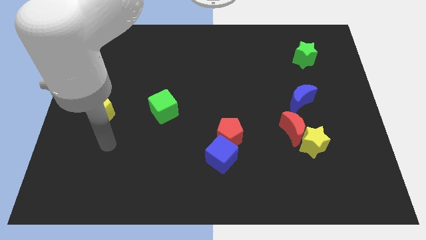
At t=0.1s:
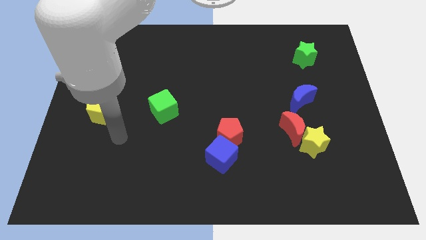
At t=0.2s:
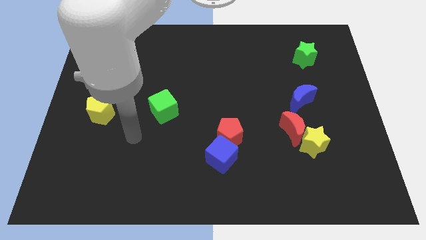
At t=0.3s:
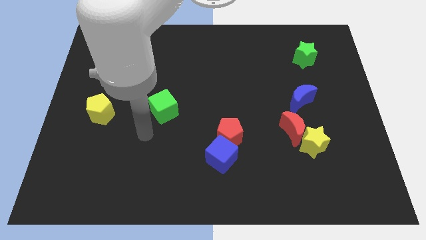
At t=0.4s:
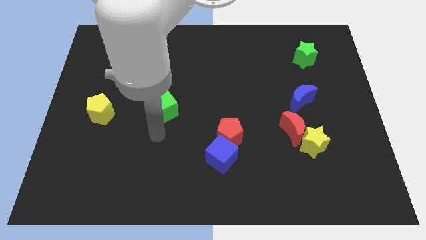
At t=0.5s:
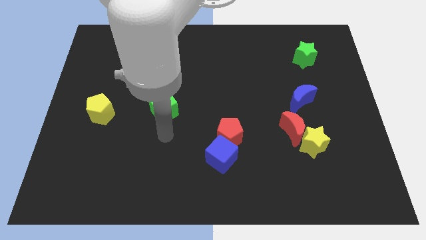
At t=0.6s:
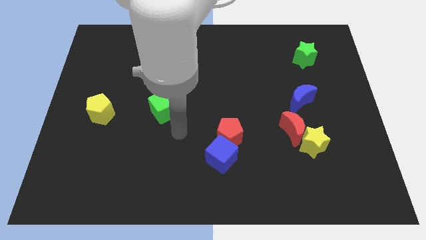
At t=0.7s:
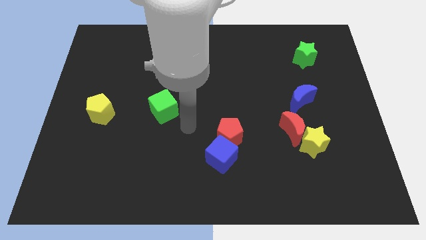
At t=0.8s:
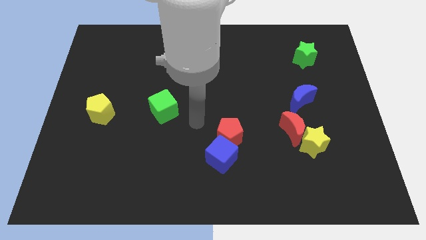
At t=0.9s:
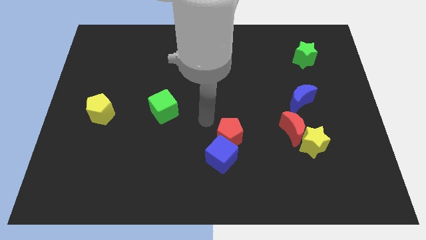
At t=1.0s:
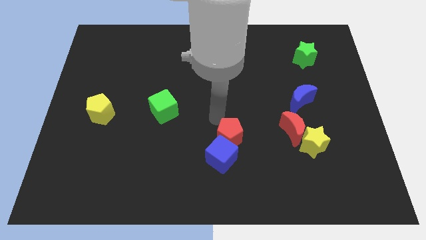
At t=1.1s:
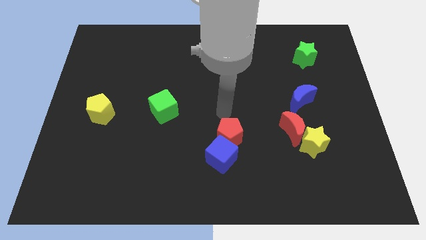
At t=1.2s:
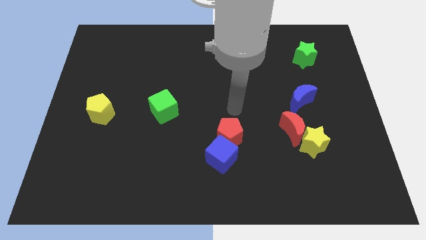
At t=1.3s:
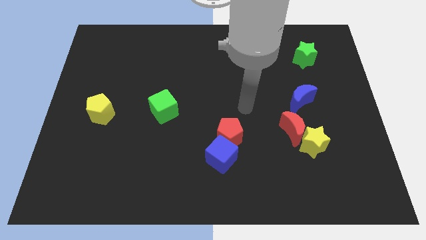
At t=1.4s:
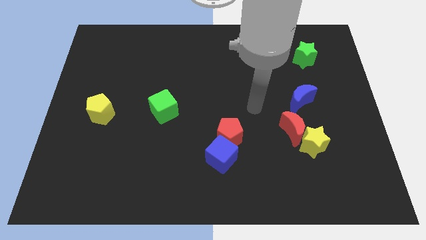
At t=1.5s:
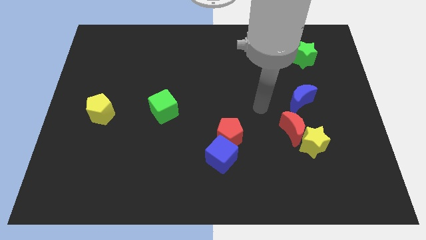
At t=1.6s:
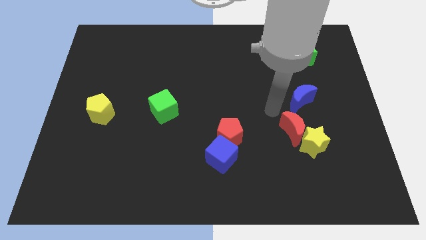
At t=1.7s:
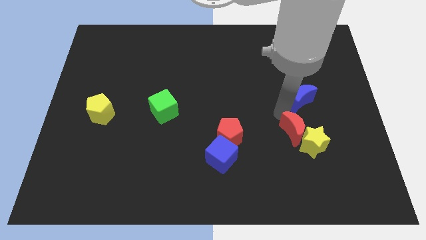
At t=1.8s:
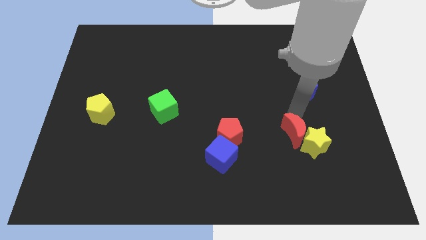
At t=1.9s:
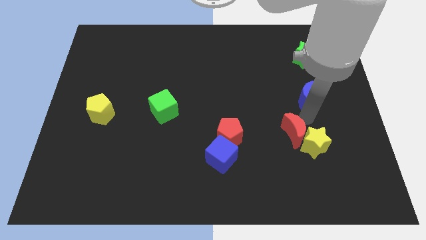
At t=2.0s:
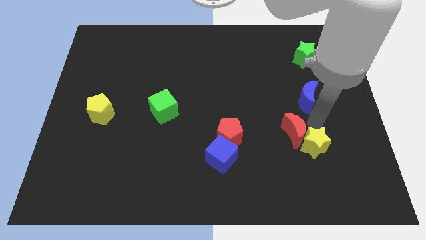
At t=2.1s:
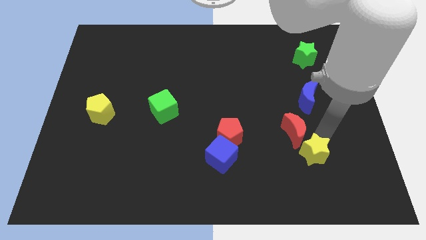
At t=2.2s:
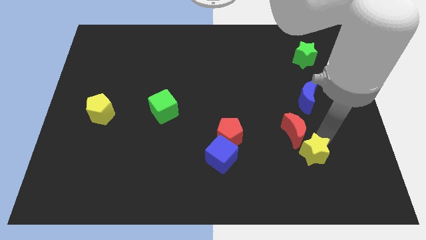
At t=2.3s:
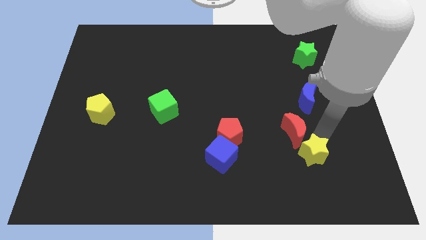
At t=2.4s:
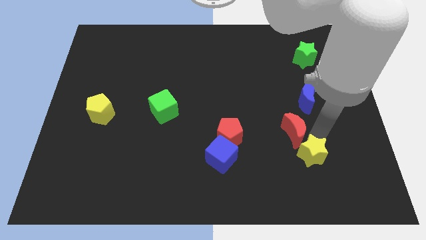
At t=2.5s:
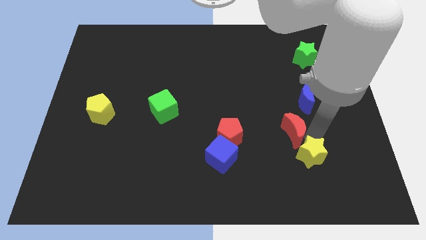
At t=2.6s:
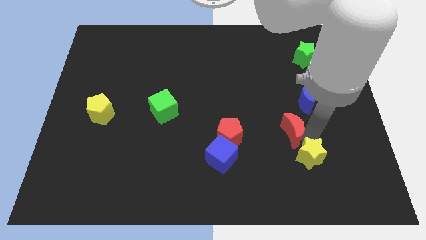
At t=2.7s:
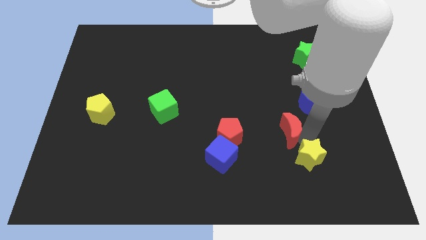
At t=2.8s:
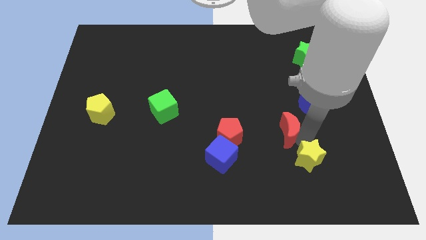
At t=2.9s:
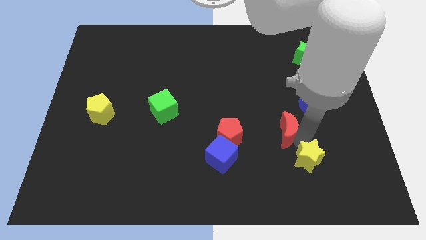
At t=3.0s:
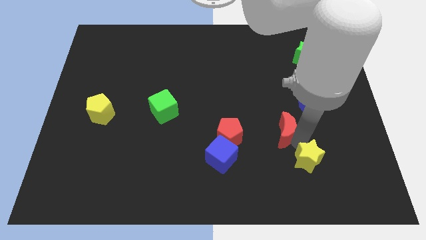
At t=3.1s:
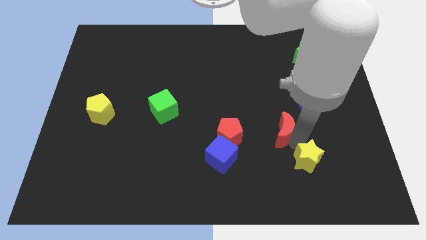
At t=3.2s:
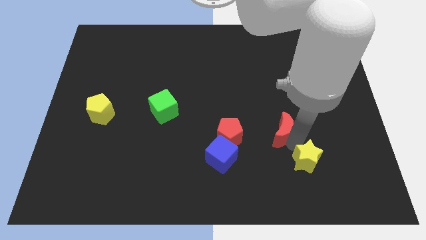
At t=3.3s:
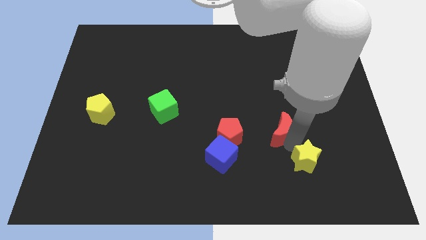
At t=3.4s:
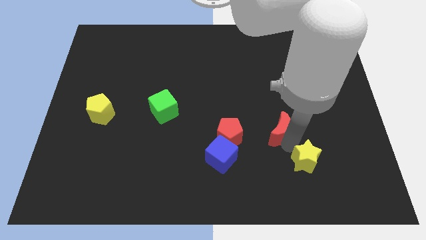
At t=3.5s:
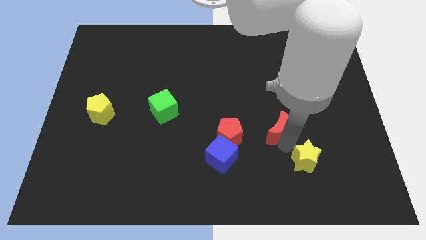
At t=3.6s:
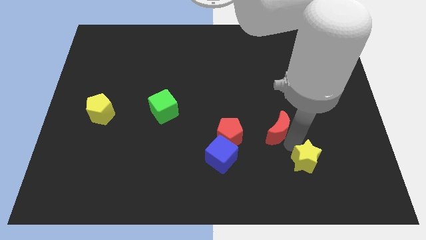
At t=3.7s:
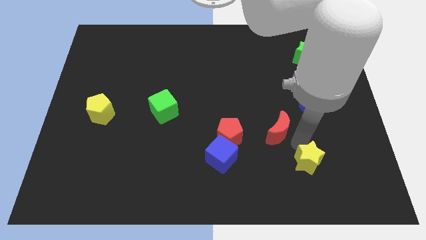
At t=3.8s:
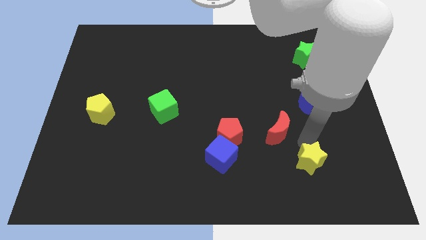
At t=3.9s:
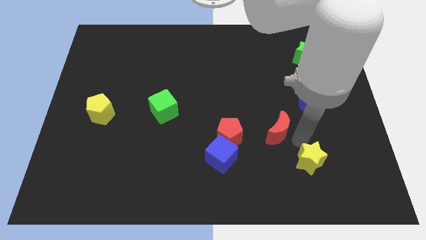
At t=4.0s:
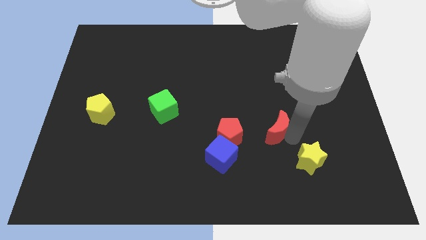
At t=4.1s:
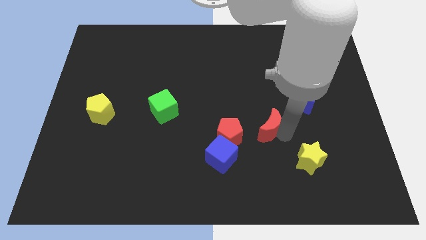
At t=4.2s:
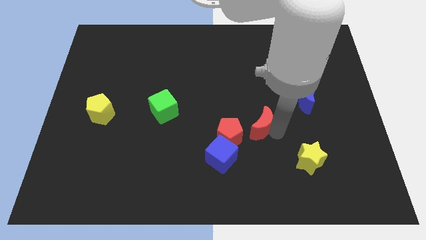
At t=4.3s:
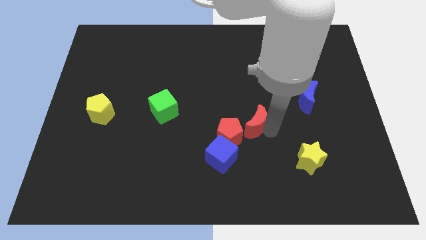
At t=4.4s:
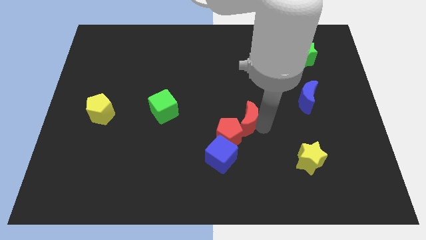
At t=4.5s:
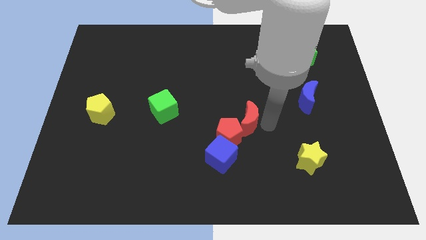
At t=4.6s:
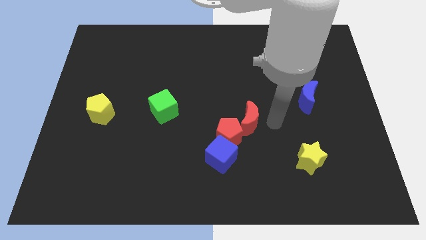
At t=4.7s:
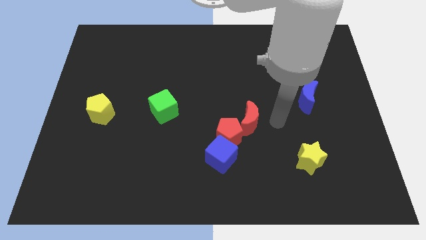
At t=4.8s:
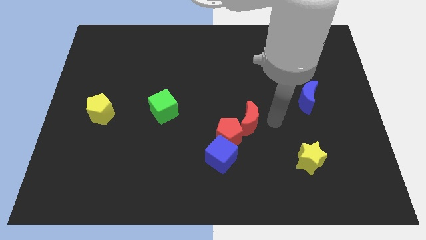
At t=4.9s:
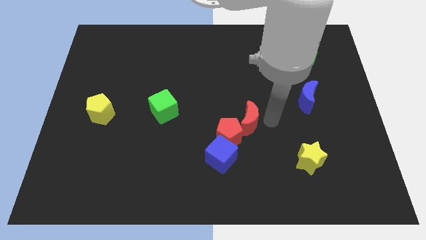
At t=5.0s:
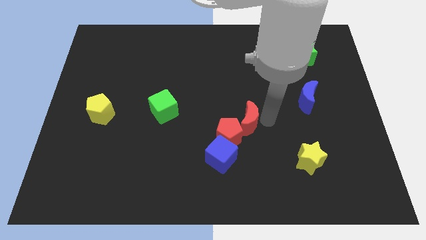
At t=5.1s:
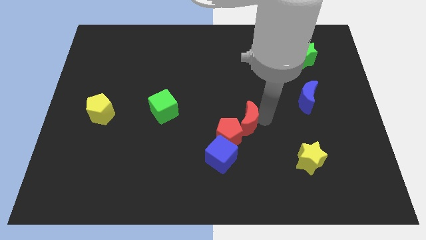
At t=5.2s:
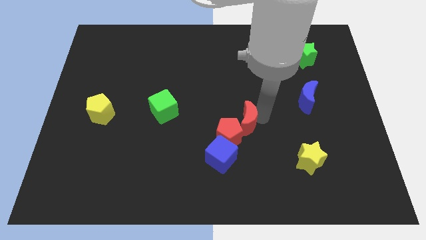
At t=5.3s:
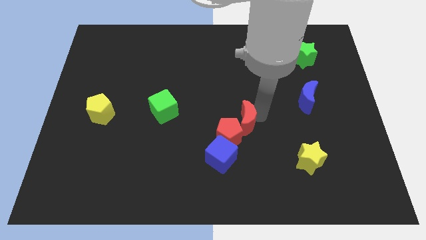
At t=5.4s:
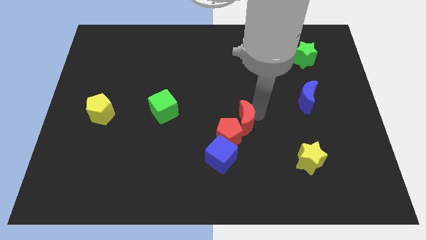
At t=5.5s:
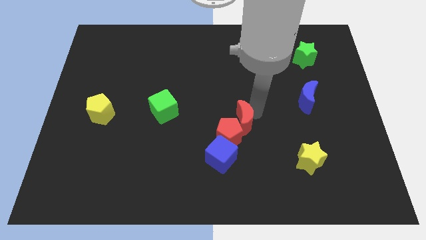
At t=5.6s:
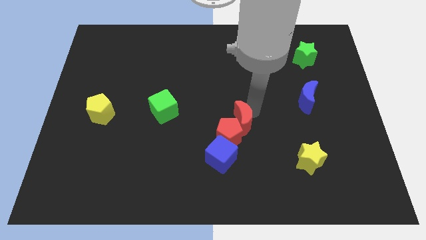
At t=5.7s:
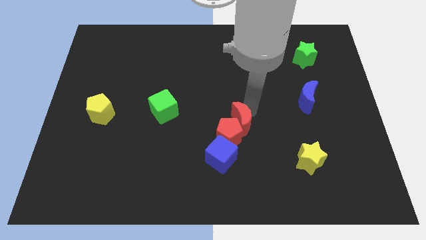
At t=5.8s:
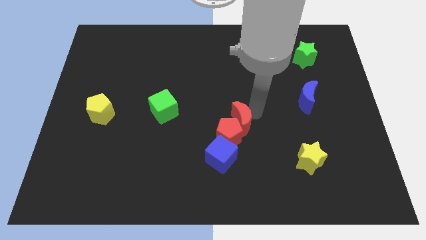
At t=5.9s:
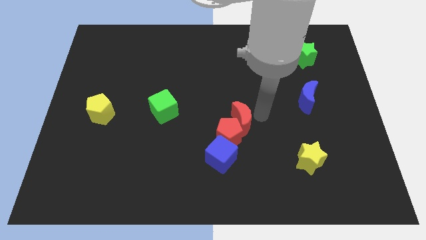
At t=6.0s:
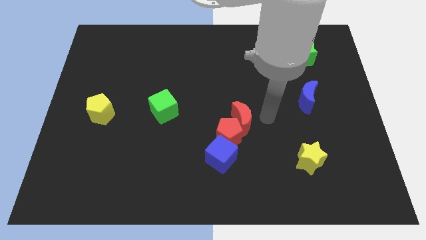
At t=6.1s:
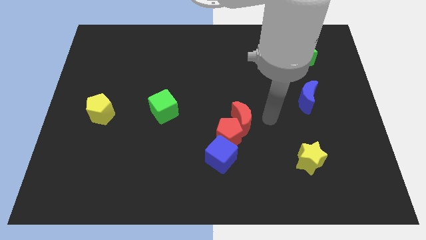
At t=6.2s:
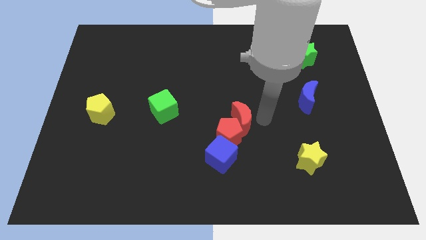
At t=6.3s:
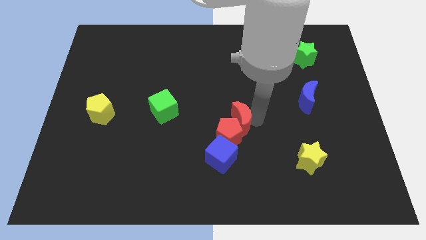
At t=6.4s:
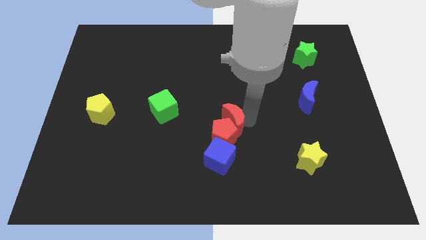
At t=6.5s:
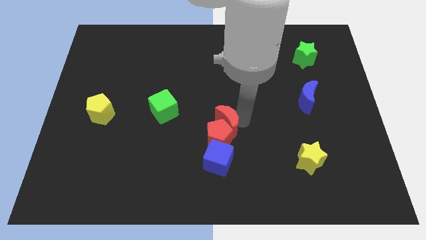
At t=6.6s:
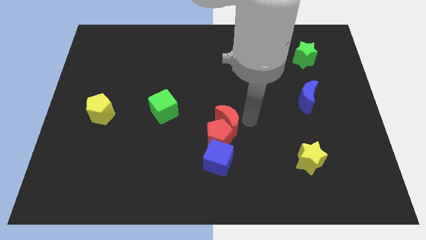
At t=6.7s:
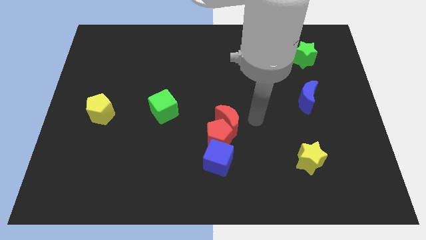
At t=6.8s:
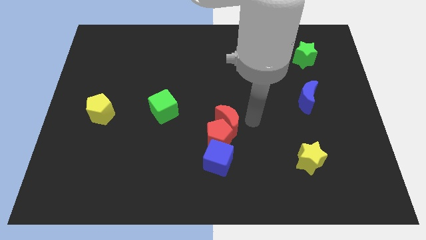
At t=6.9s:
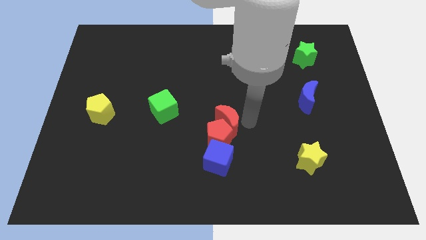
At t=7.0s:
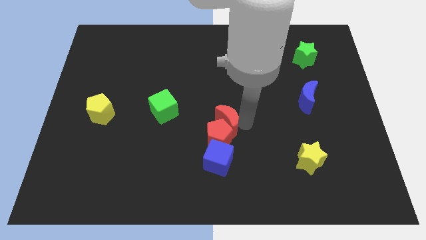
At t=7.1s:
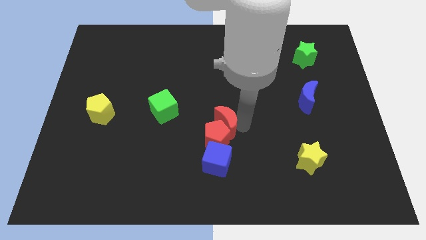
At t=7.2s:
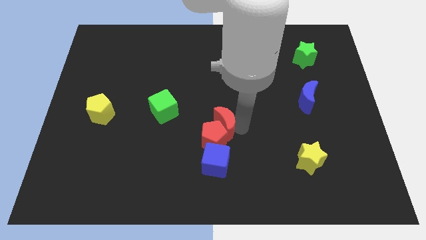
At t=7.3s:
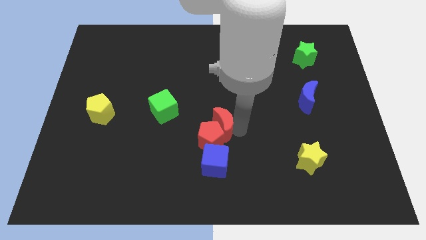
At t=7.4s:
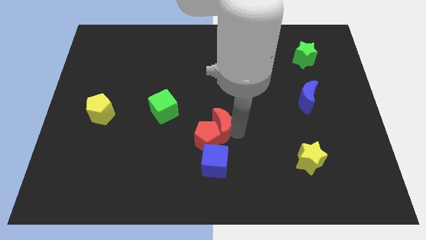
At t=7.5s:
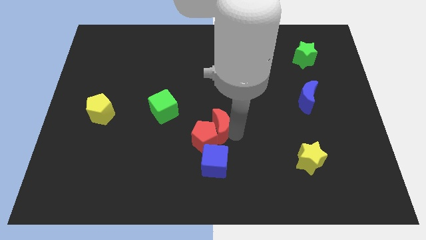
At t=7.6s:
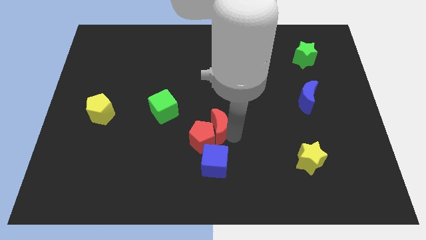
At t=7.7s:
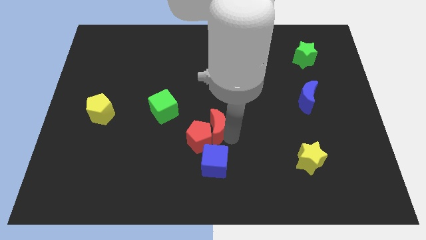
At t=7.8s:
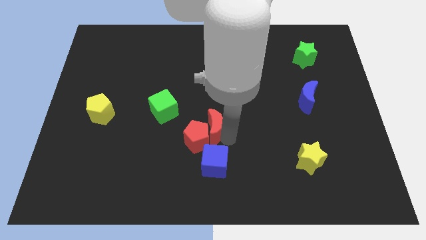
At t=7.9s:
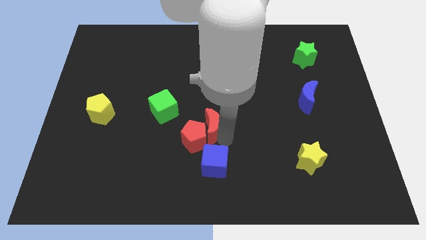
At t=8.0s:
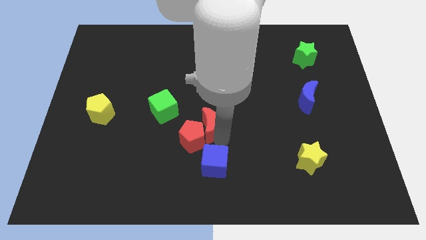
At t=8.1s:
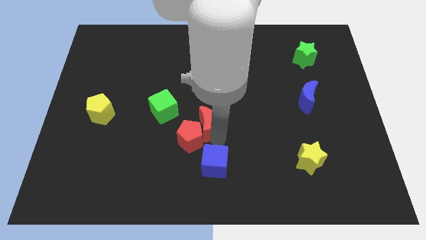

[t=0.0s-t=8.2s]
slide the red moon diagonally down and to the right of the green cube
